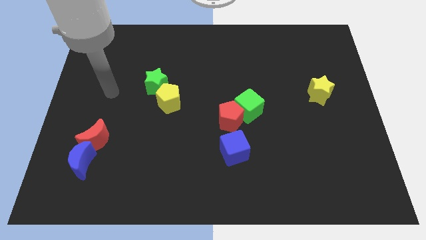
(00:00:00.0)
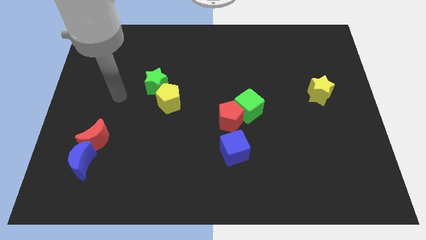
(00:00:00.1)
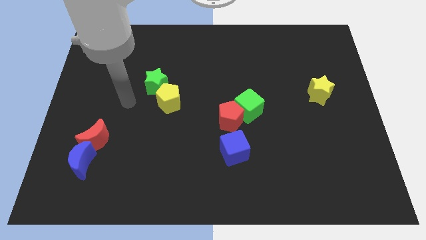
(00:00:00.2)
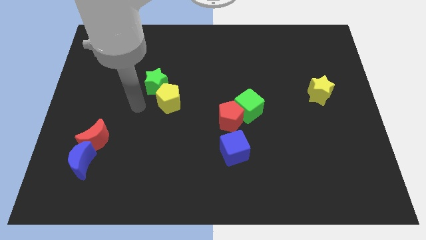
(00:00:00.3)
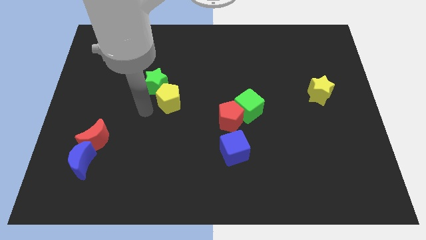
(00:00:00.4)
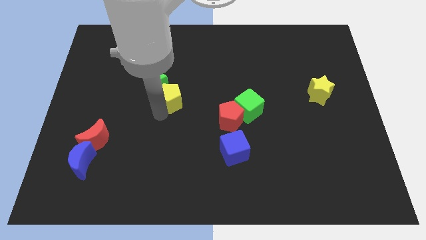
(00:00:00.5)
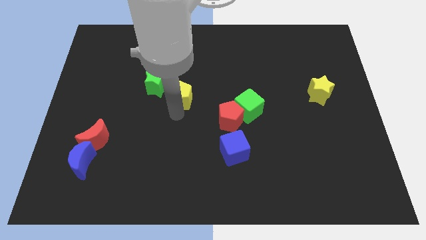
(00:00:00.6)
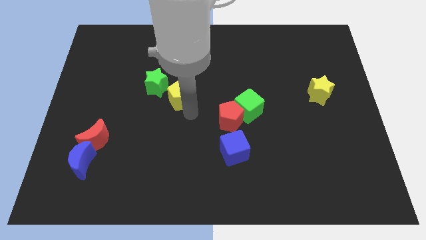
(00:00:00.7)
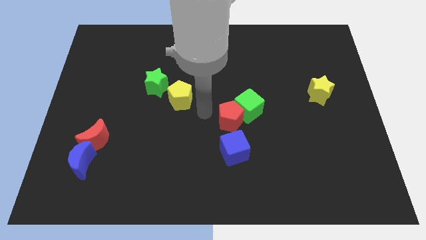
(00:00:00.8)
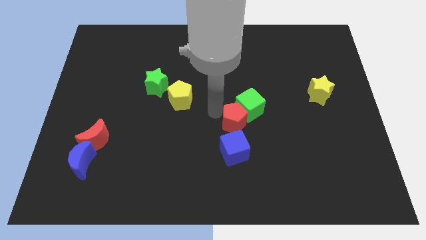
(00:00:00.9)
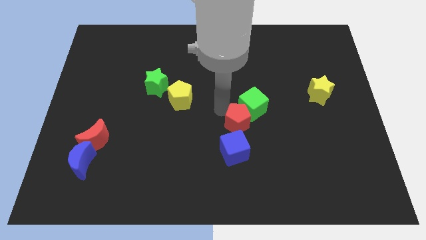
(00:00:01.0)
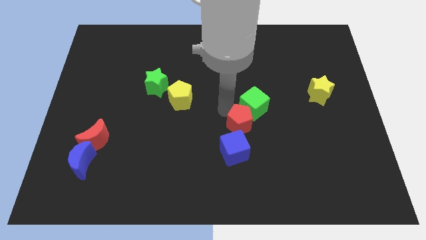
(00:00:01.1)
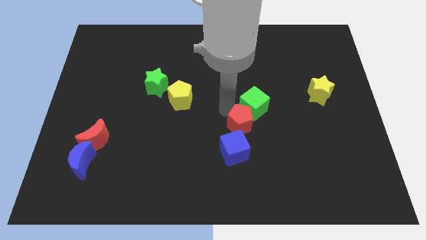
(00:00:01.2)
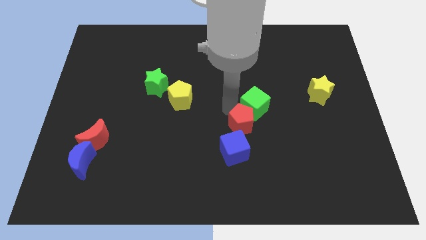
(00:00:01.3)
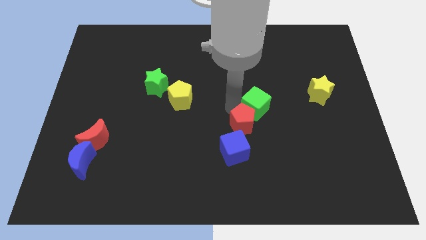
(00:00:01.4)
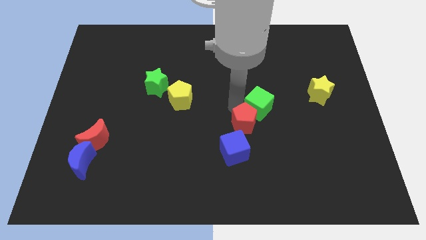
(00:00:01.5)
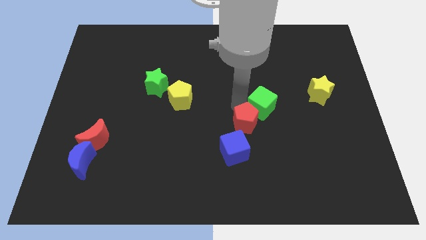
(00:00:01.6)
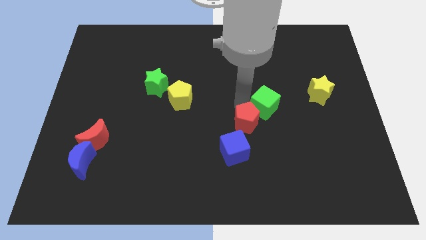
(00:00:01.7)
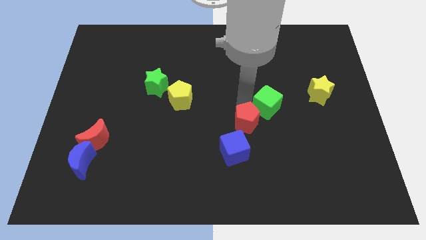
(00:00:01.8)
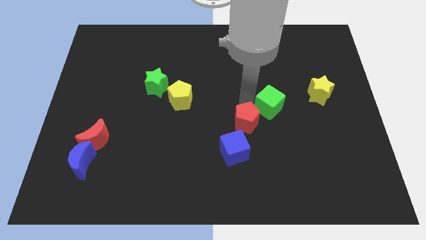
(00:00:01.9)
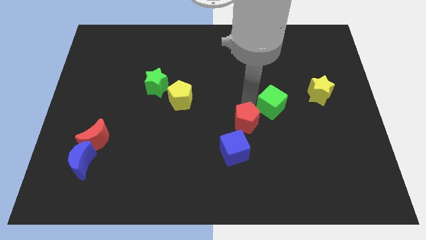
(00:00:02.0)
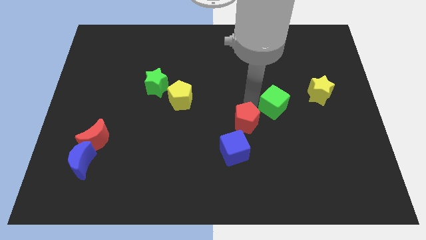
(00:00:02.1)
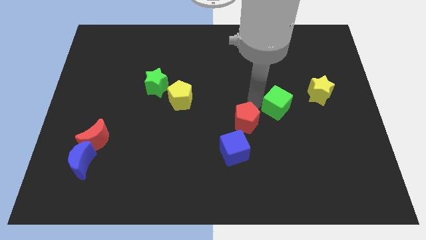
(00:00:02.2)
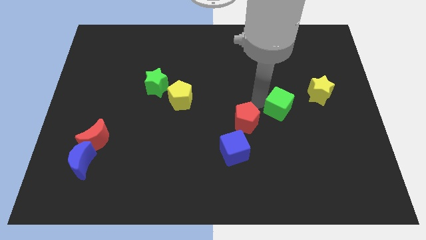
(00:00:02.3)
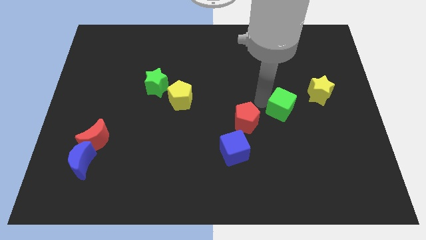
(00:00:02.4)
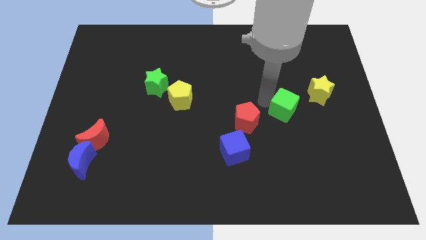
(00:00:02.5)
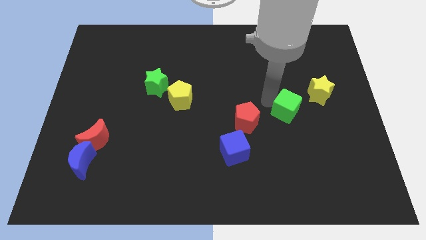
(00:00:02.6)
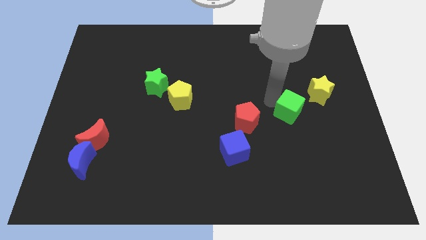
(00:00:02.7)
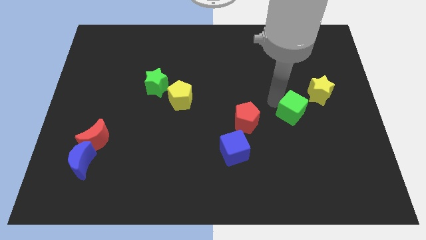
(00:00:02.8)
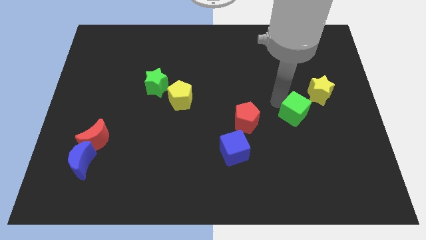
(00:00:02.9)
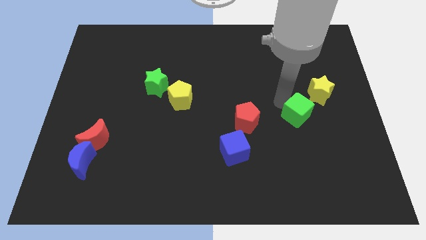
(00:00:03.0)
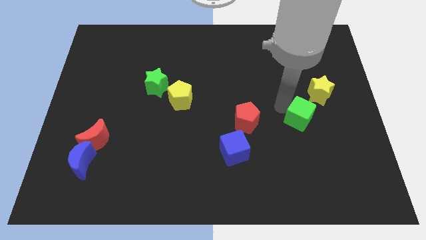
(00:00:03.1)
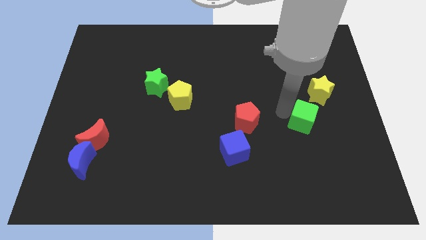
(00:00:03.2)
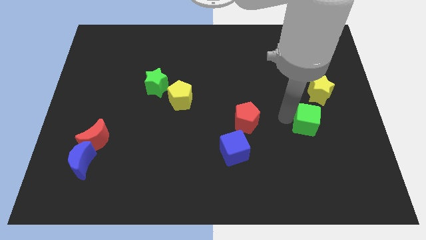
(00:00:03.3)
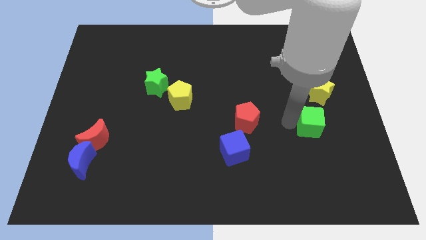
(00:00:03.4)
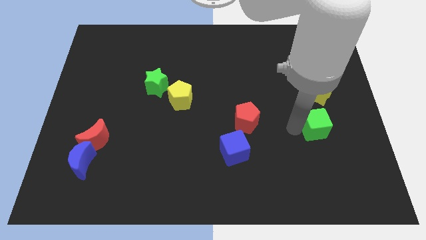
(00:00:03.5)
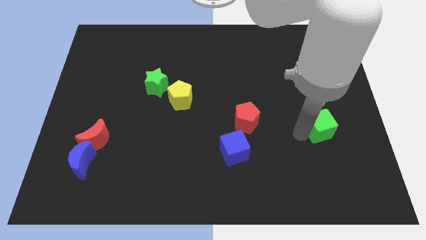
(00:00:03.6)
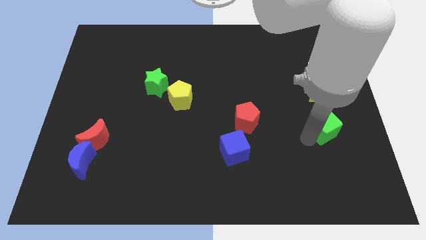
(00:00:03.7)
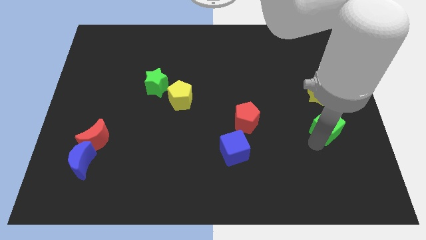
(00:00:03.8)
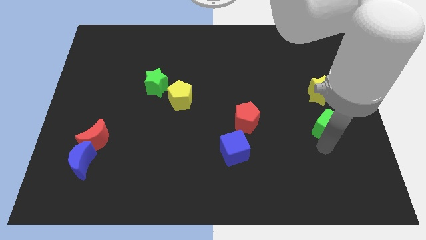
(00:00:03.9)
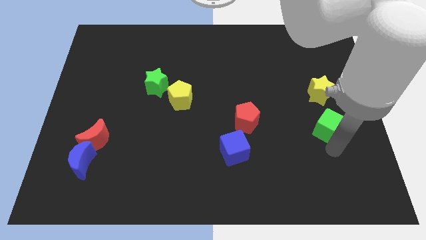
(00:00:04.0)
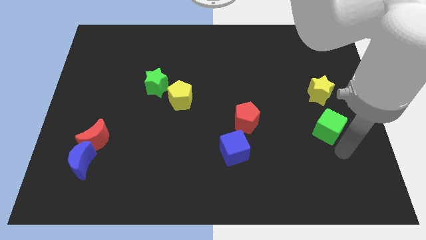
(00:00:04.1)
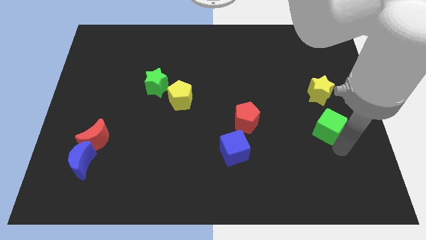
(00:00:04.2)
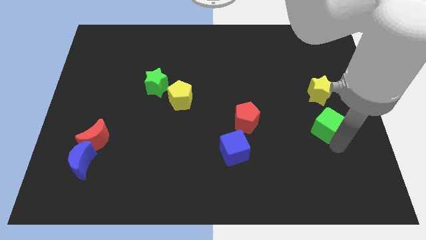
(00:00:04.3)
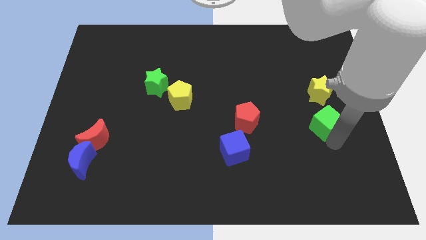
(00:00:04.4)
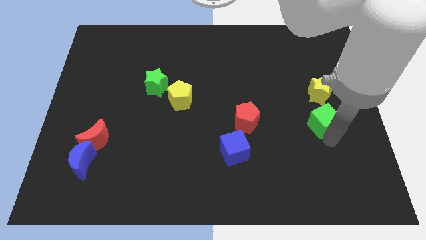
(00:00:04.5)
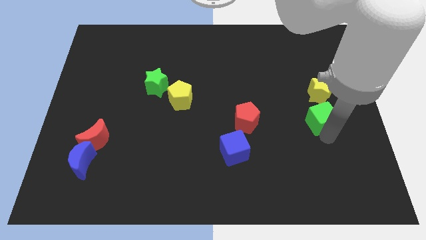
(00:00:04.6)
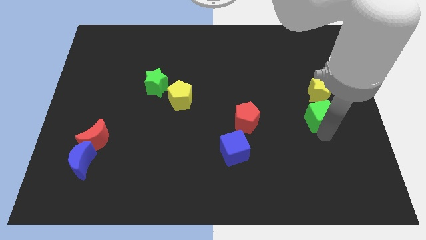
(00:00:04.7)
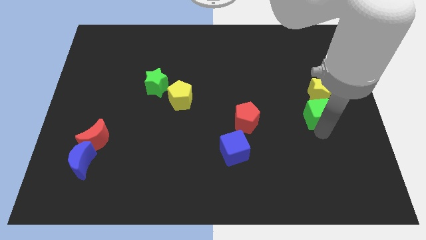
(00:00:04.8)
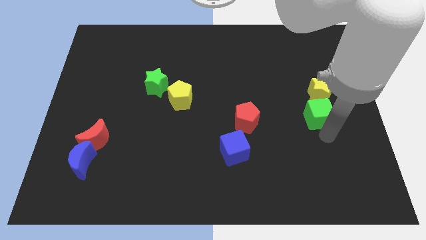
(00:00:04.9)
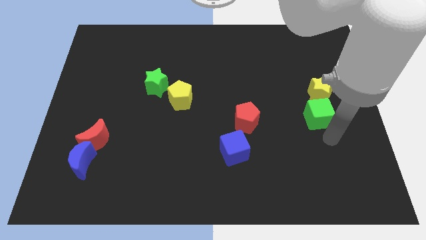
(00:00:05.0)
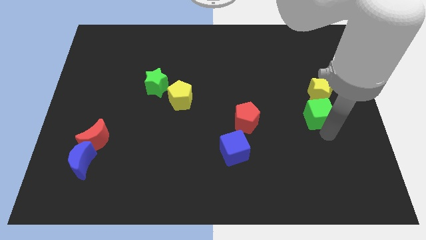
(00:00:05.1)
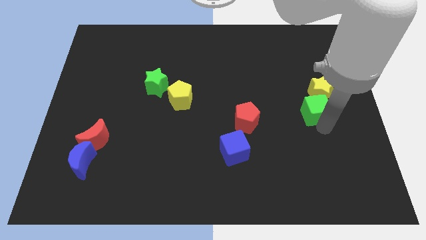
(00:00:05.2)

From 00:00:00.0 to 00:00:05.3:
push the green cube towards the yellow star

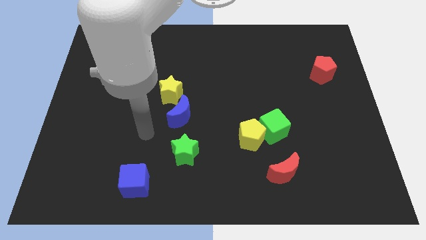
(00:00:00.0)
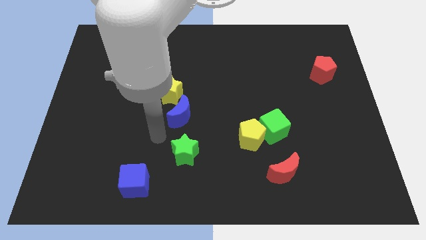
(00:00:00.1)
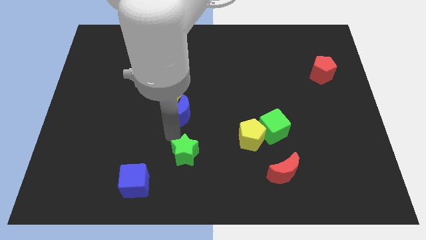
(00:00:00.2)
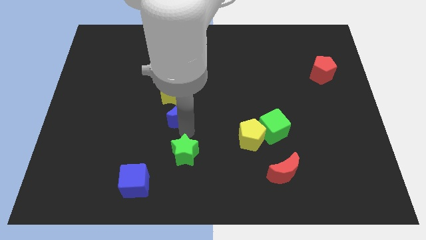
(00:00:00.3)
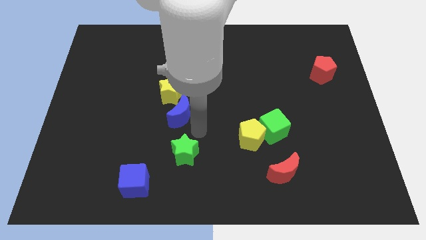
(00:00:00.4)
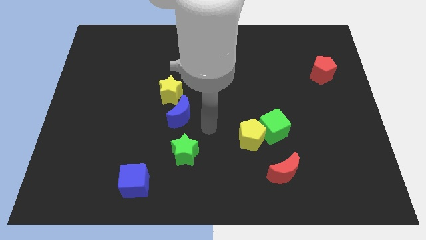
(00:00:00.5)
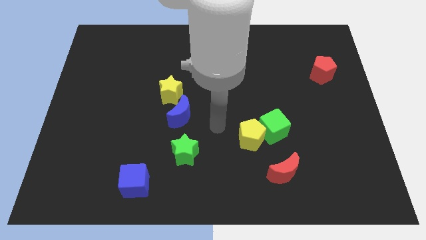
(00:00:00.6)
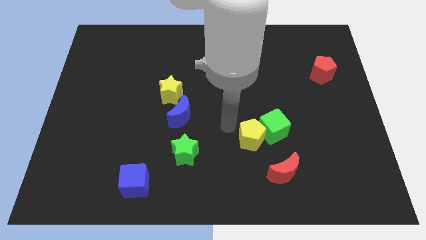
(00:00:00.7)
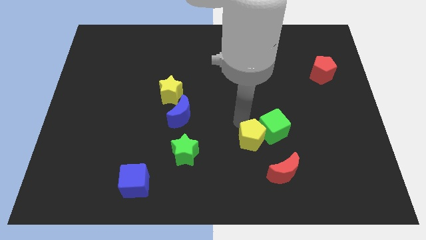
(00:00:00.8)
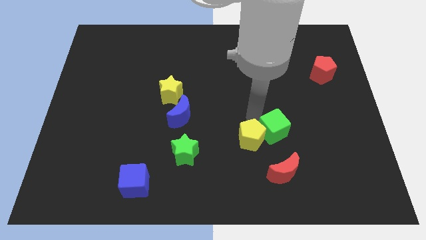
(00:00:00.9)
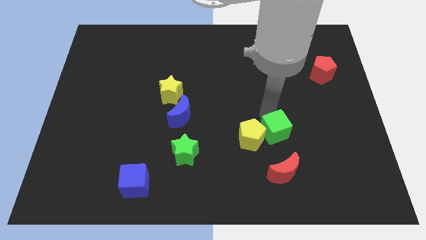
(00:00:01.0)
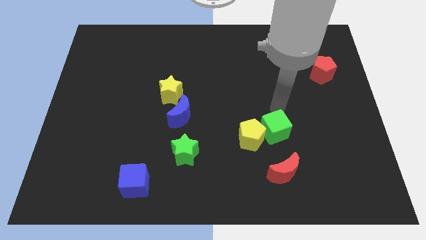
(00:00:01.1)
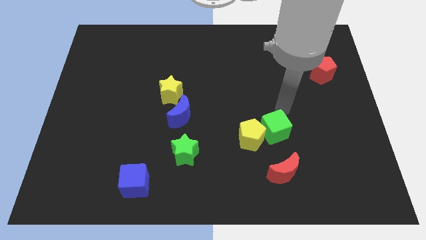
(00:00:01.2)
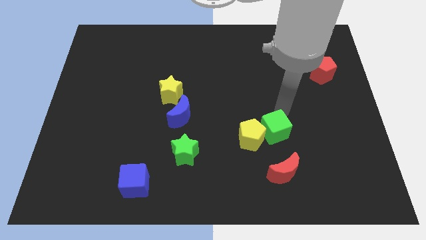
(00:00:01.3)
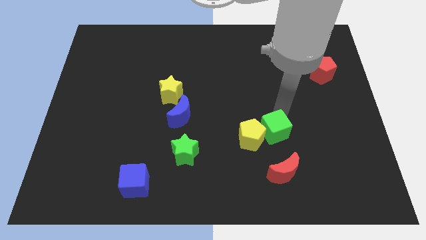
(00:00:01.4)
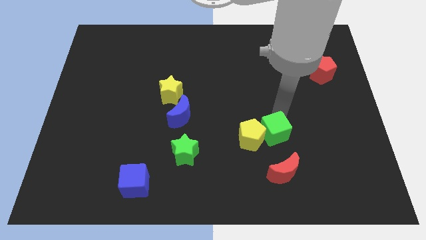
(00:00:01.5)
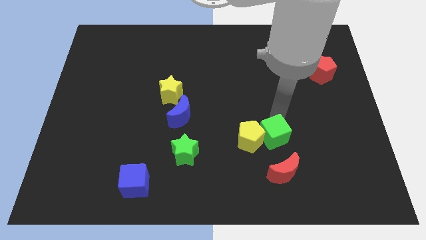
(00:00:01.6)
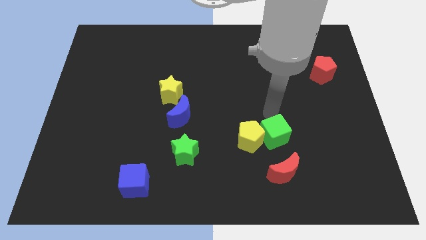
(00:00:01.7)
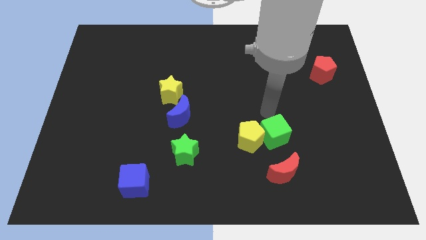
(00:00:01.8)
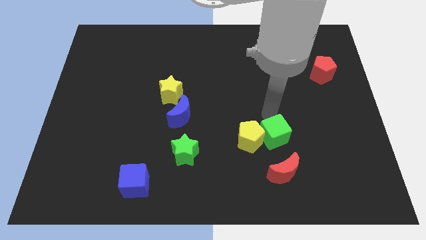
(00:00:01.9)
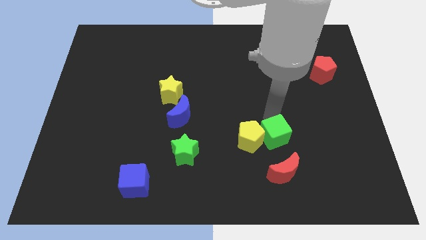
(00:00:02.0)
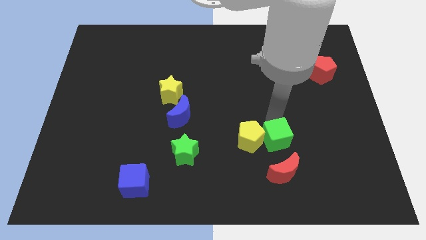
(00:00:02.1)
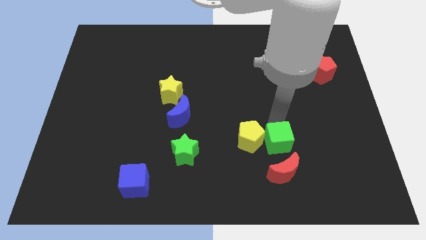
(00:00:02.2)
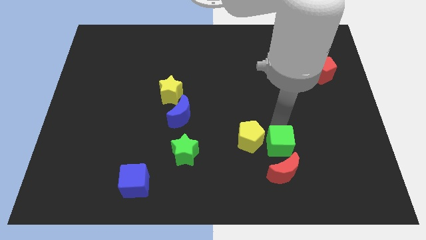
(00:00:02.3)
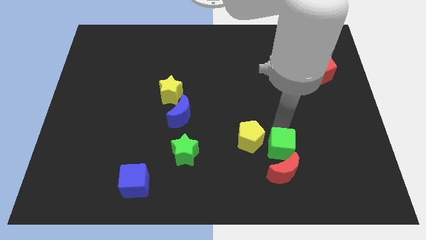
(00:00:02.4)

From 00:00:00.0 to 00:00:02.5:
push the green cube to the red moon
